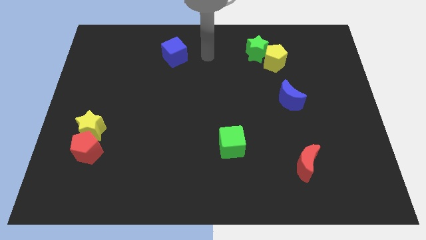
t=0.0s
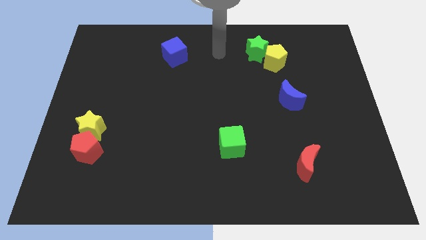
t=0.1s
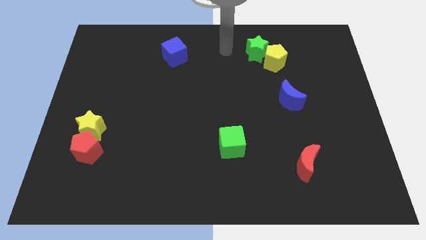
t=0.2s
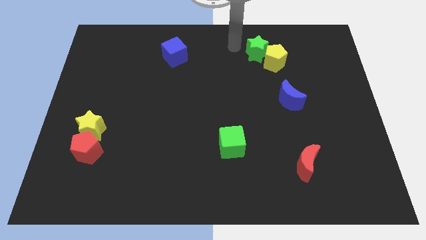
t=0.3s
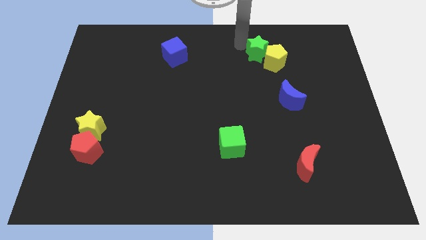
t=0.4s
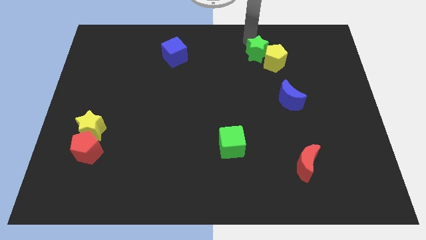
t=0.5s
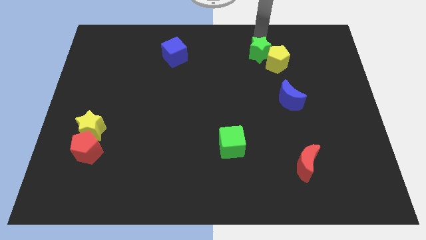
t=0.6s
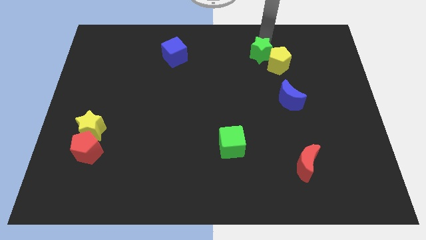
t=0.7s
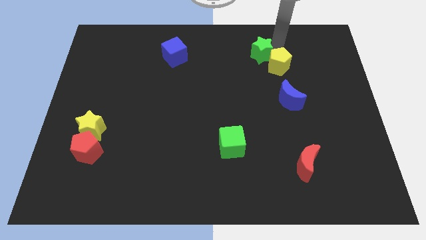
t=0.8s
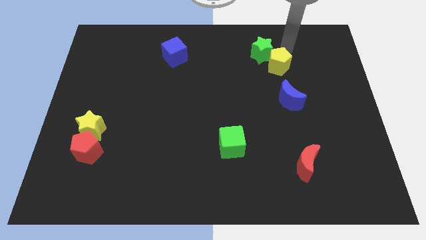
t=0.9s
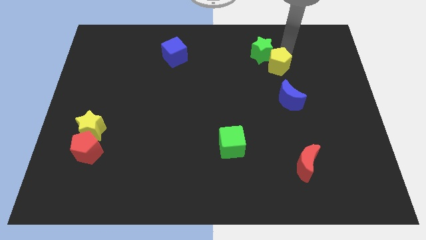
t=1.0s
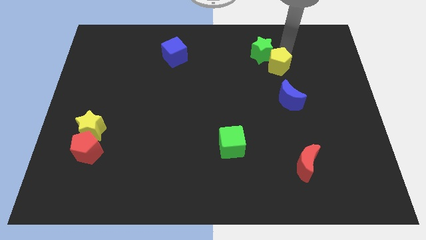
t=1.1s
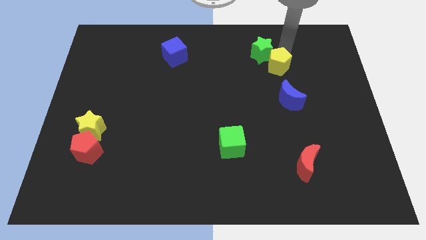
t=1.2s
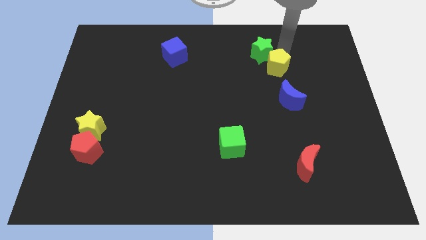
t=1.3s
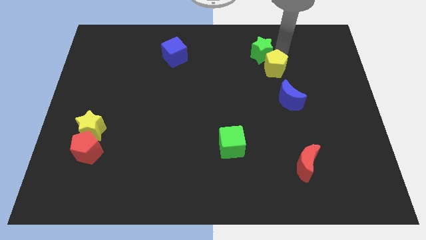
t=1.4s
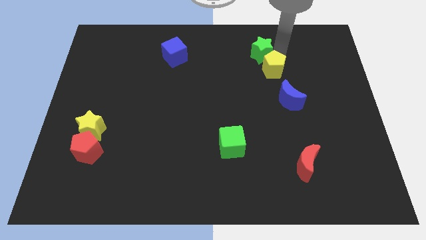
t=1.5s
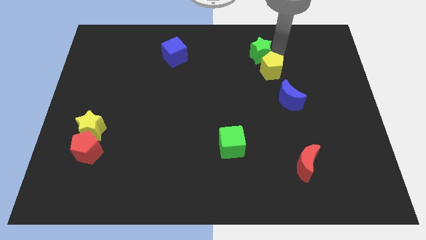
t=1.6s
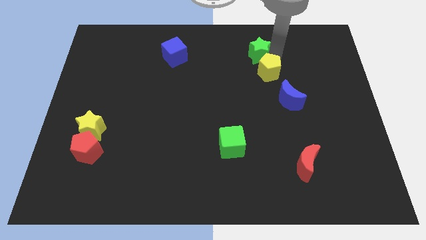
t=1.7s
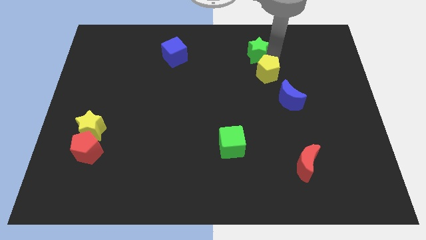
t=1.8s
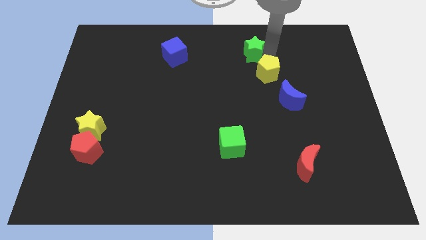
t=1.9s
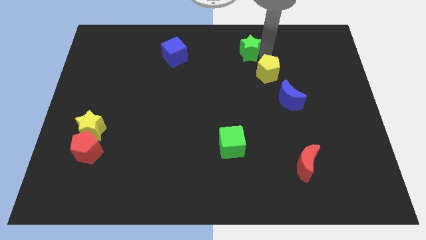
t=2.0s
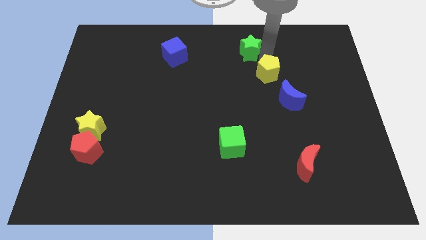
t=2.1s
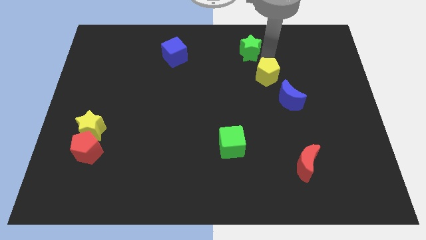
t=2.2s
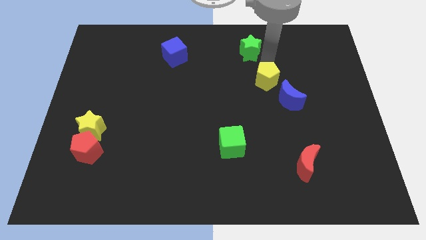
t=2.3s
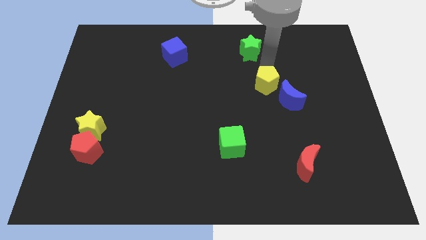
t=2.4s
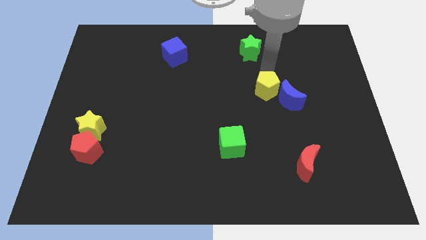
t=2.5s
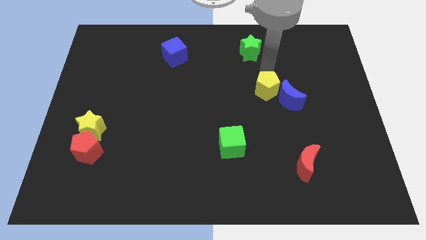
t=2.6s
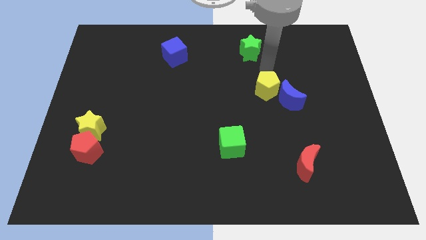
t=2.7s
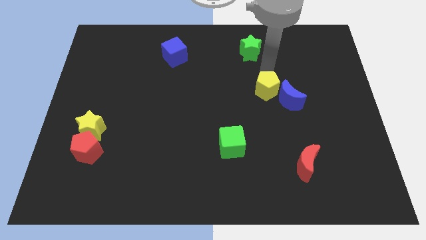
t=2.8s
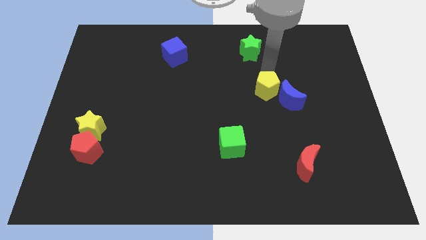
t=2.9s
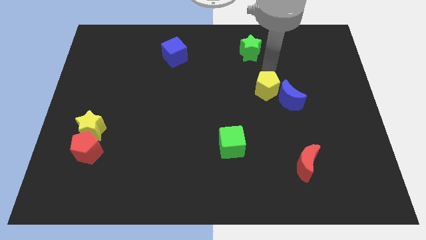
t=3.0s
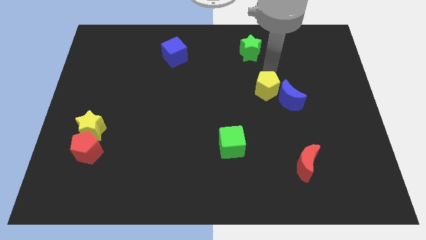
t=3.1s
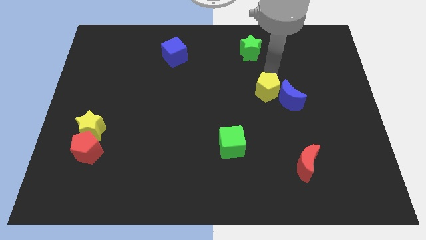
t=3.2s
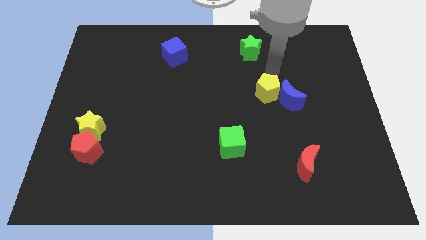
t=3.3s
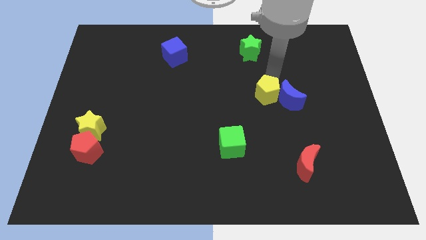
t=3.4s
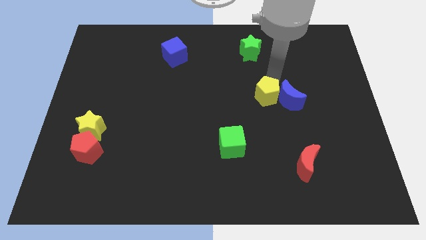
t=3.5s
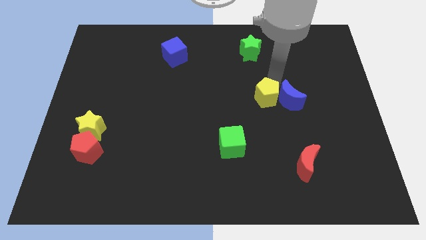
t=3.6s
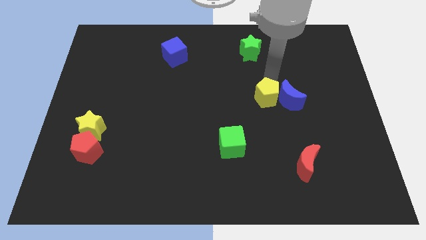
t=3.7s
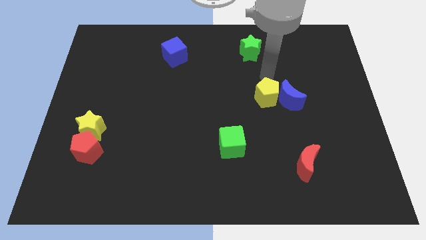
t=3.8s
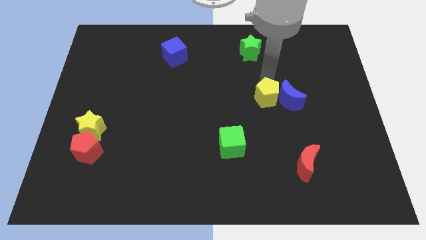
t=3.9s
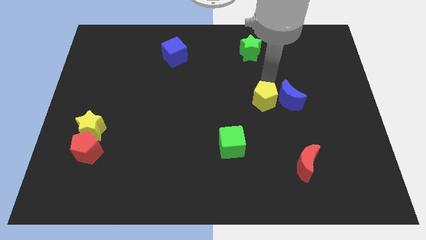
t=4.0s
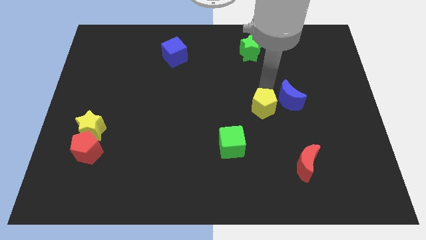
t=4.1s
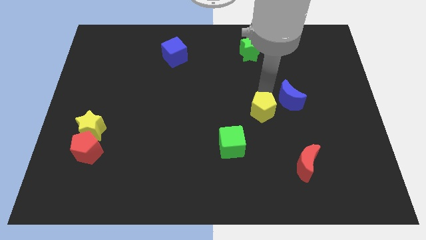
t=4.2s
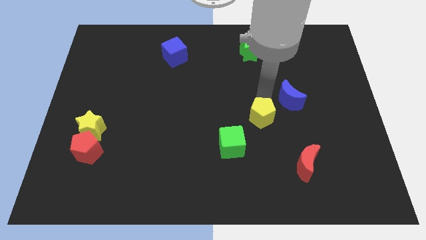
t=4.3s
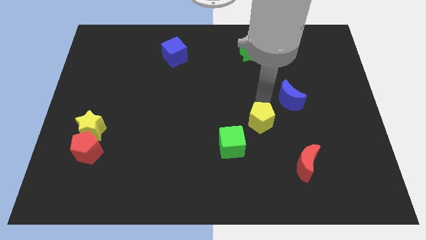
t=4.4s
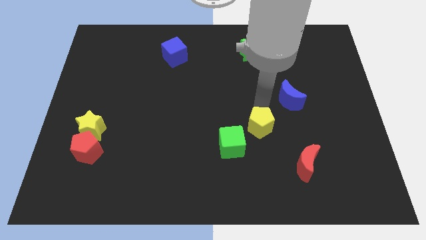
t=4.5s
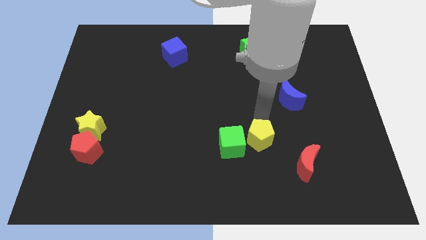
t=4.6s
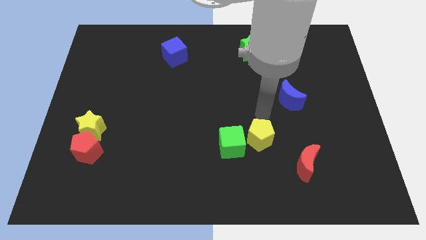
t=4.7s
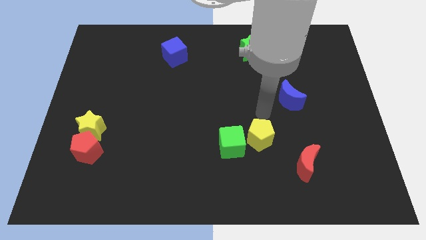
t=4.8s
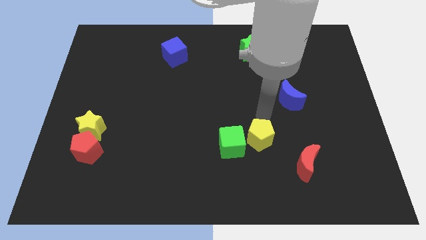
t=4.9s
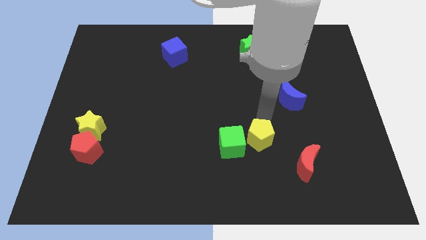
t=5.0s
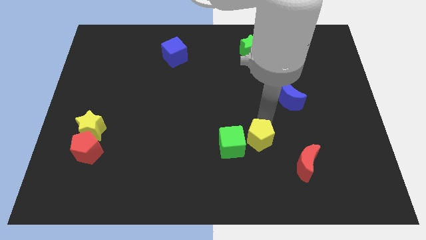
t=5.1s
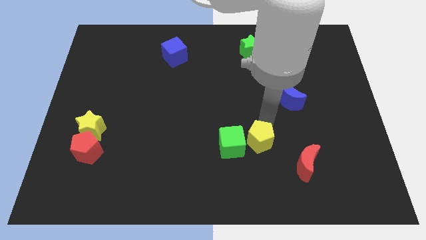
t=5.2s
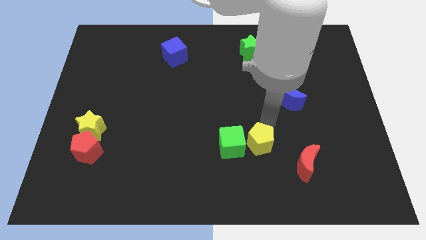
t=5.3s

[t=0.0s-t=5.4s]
slide the yellow pentagon to the bottom right of the green cube

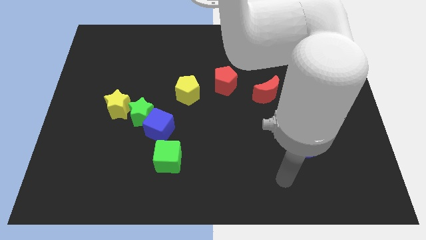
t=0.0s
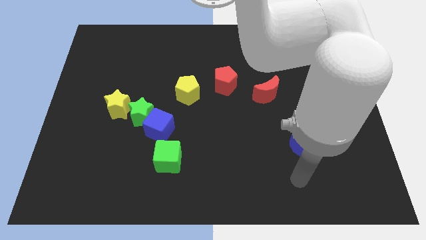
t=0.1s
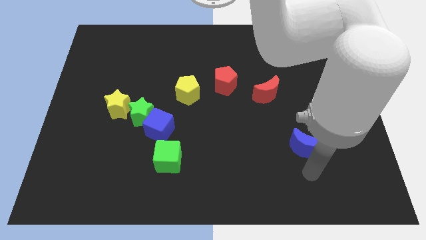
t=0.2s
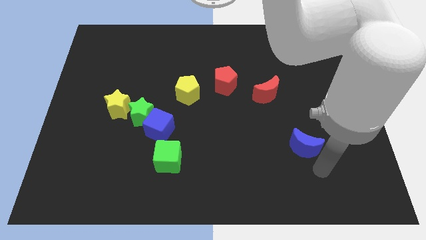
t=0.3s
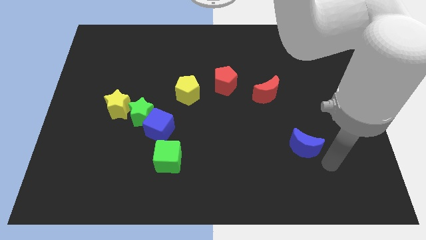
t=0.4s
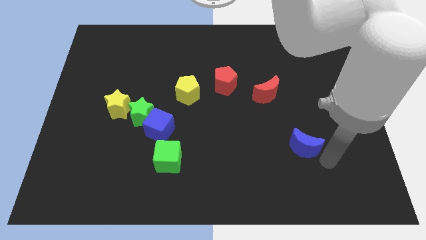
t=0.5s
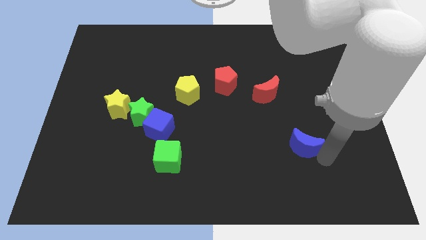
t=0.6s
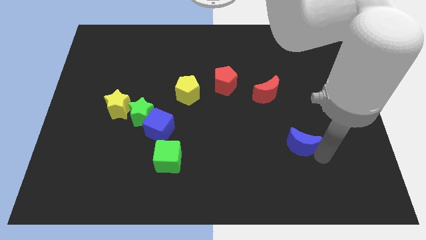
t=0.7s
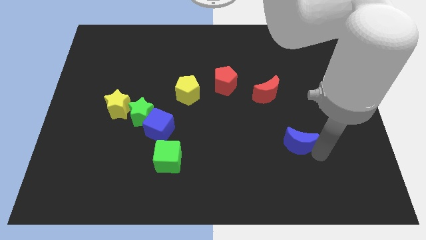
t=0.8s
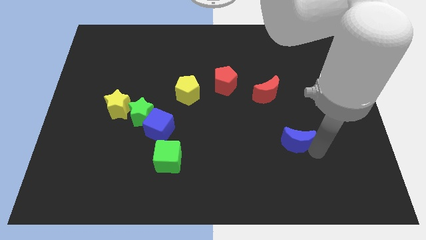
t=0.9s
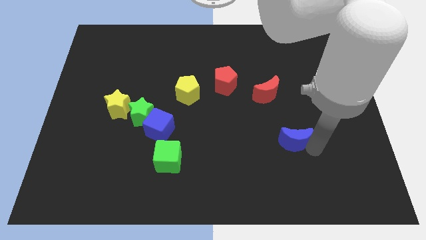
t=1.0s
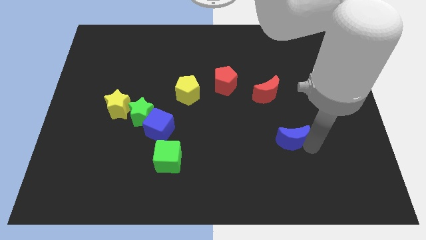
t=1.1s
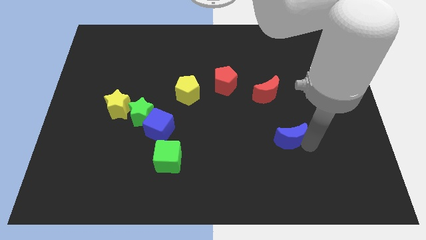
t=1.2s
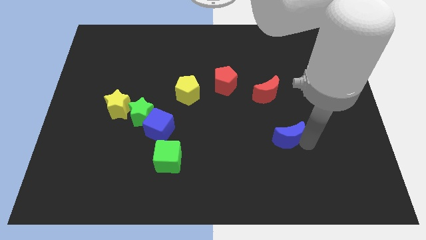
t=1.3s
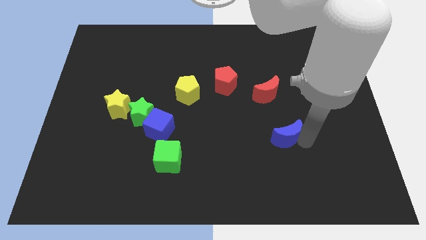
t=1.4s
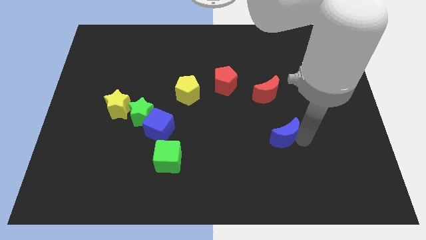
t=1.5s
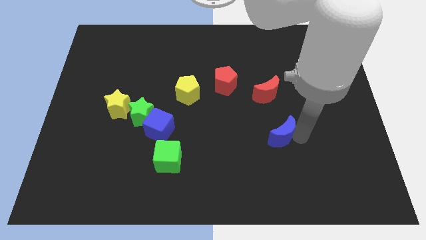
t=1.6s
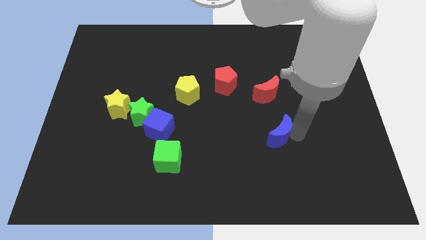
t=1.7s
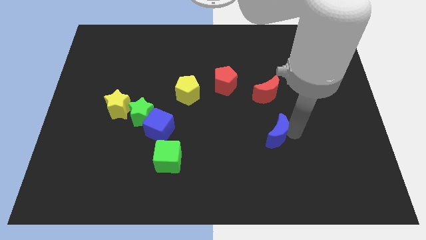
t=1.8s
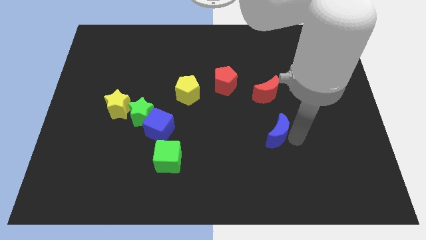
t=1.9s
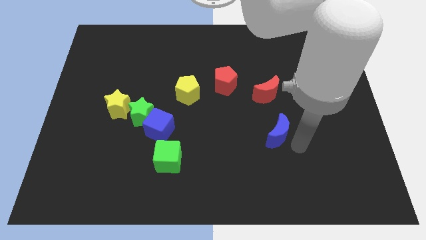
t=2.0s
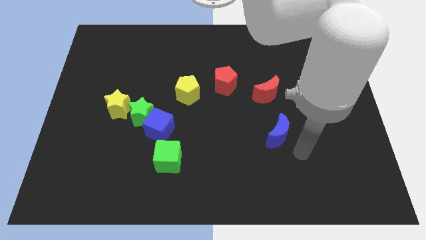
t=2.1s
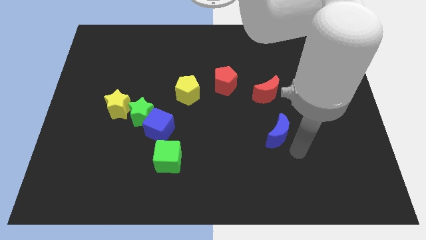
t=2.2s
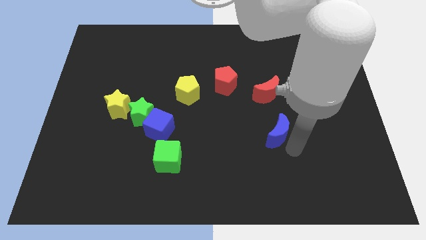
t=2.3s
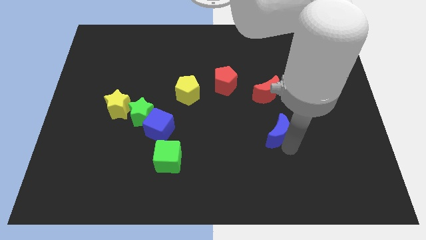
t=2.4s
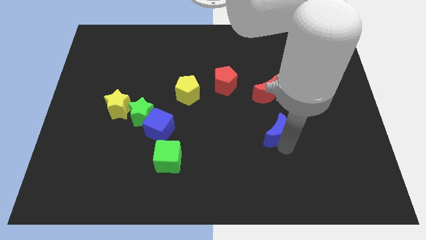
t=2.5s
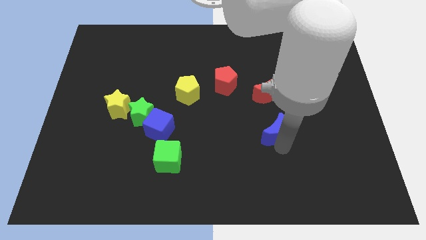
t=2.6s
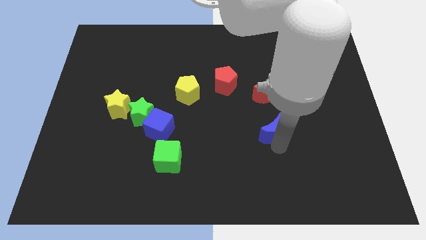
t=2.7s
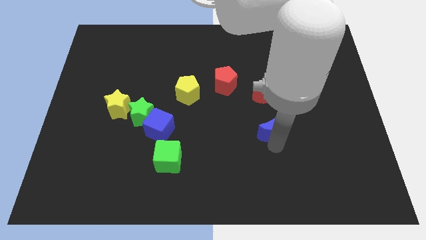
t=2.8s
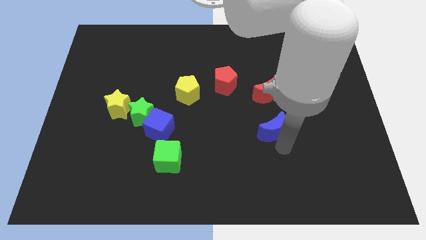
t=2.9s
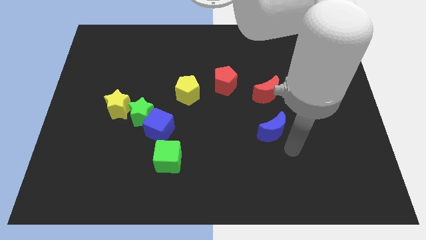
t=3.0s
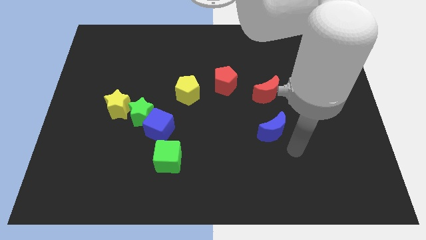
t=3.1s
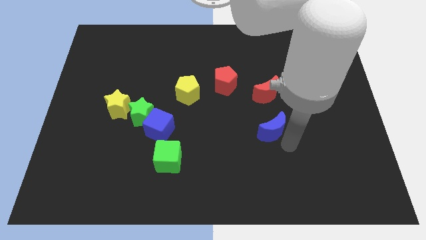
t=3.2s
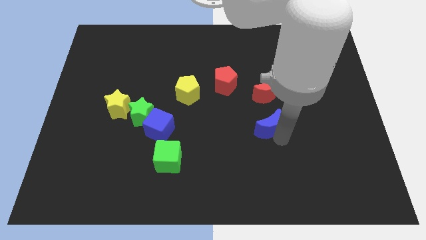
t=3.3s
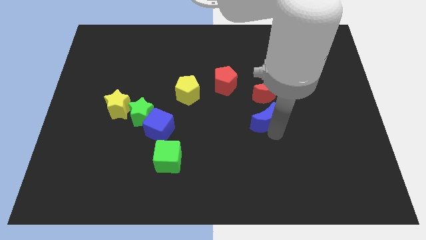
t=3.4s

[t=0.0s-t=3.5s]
slide the blue moon to the bottom left side of the red moon
